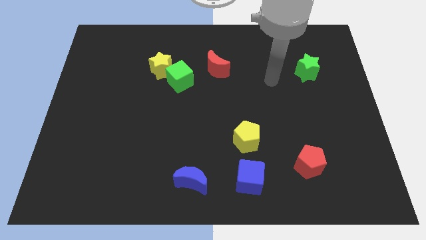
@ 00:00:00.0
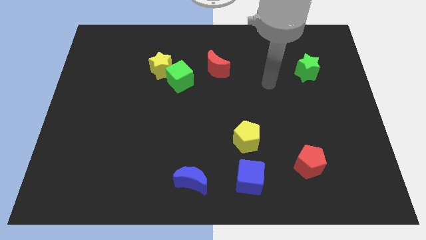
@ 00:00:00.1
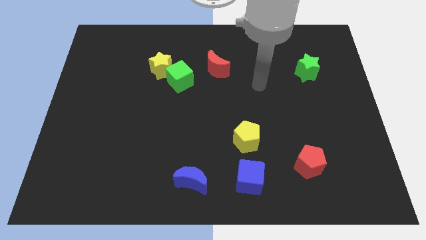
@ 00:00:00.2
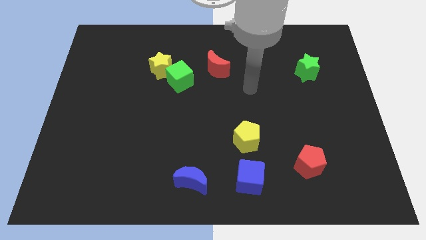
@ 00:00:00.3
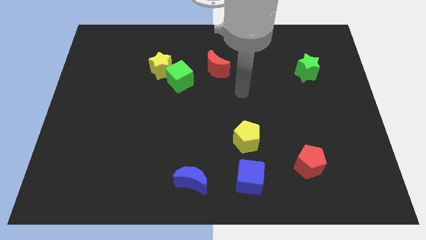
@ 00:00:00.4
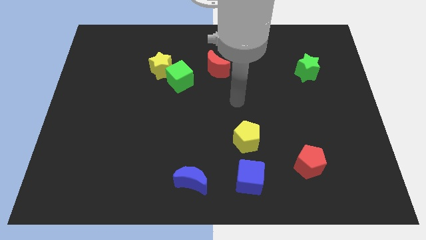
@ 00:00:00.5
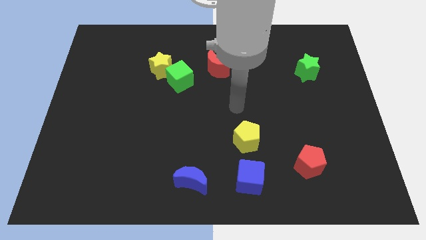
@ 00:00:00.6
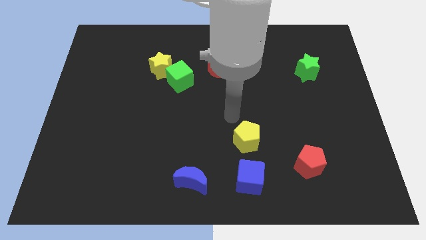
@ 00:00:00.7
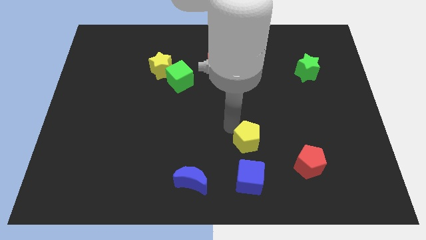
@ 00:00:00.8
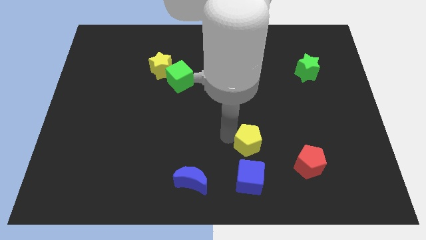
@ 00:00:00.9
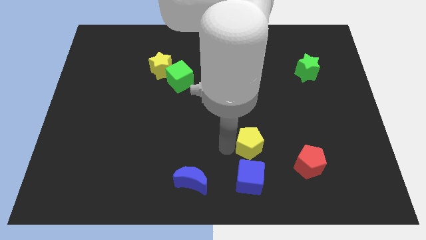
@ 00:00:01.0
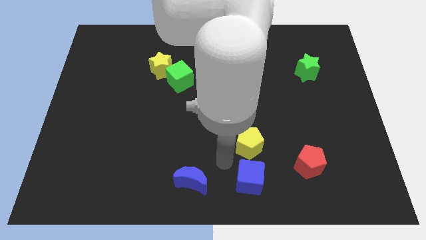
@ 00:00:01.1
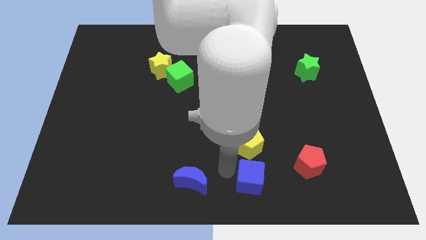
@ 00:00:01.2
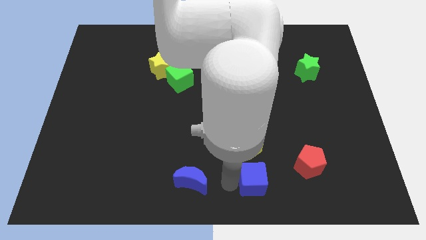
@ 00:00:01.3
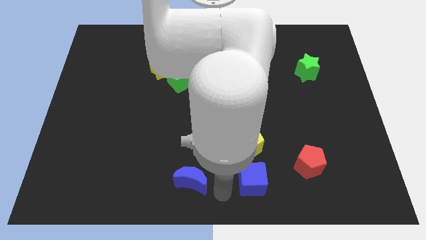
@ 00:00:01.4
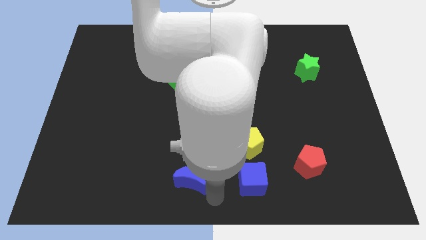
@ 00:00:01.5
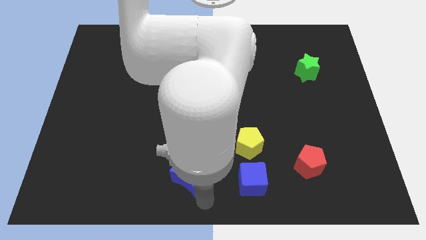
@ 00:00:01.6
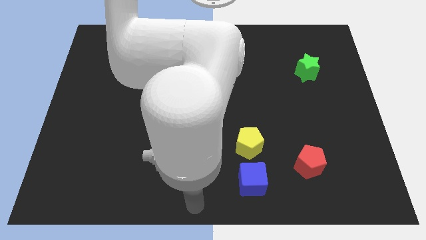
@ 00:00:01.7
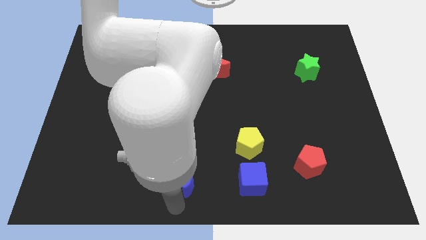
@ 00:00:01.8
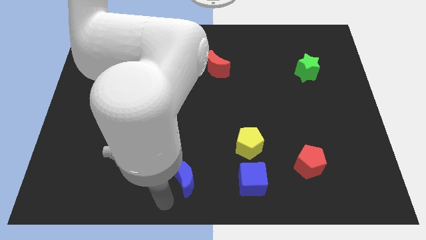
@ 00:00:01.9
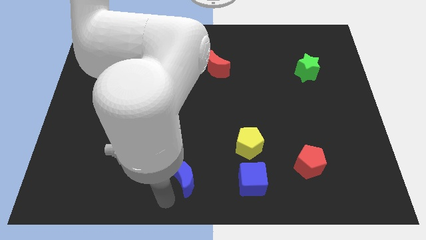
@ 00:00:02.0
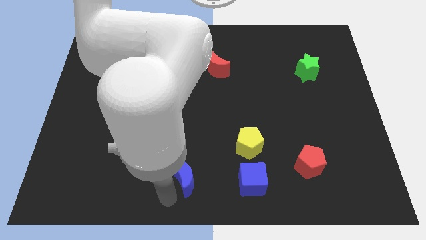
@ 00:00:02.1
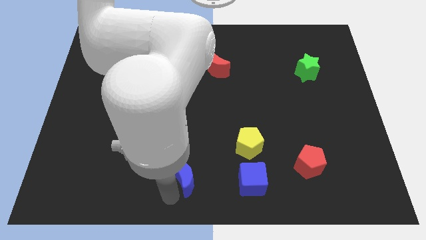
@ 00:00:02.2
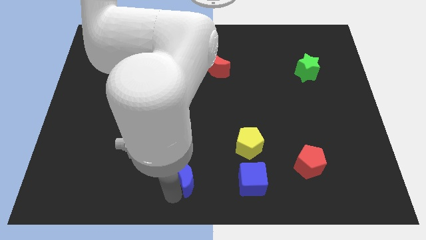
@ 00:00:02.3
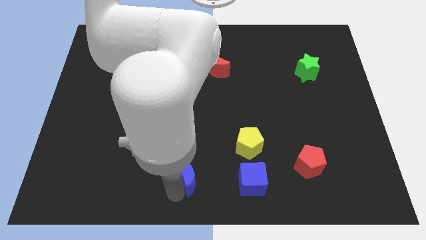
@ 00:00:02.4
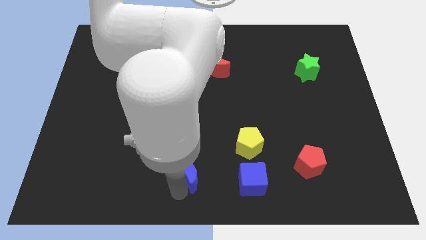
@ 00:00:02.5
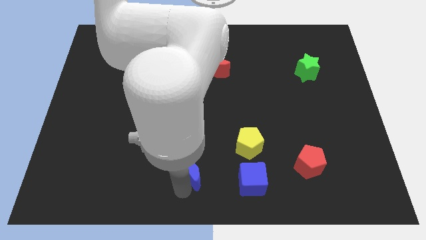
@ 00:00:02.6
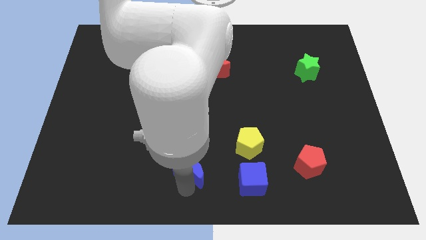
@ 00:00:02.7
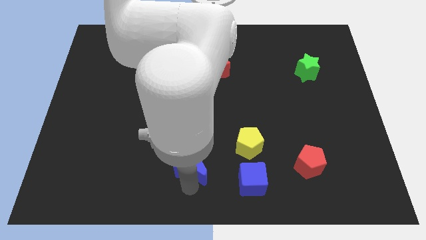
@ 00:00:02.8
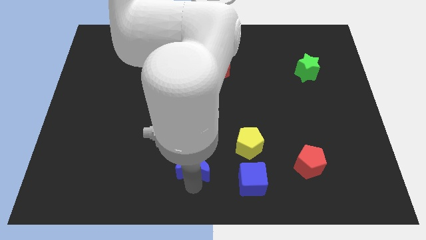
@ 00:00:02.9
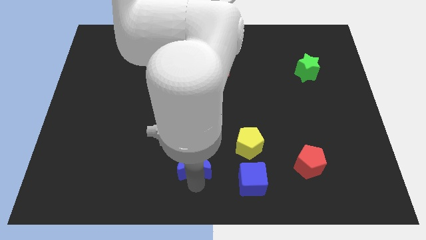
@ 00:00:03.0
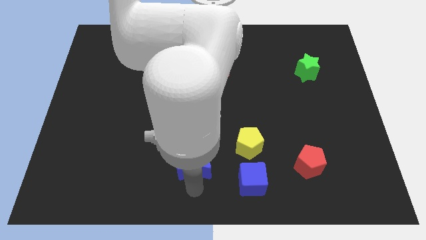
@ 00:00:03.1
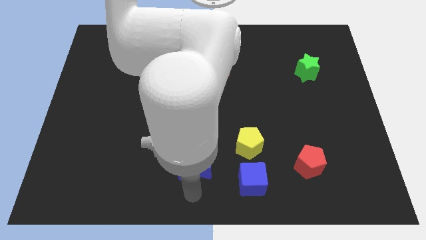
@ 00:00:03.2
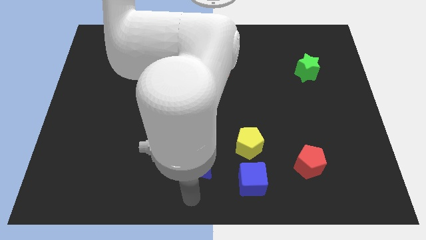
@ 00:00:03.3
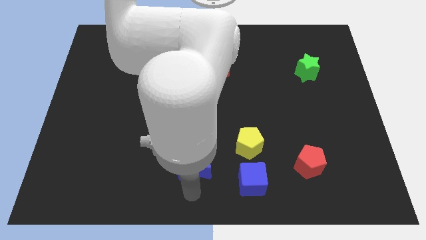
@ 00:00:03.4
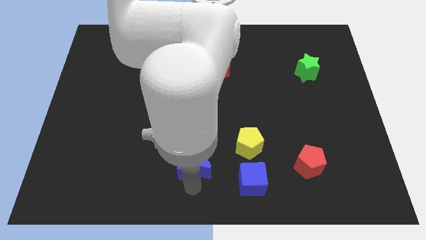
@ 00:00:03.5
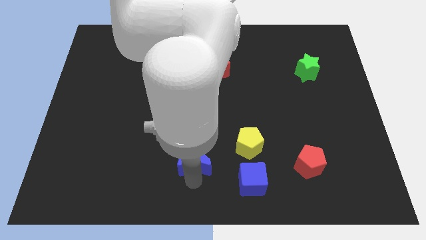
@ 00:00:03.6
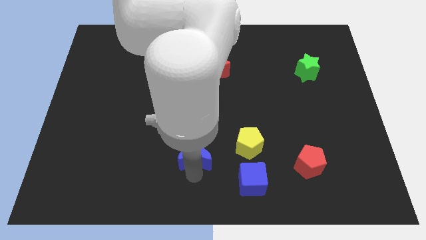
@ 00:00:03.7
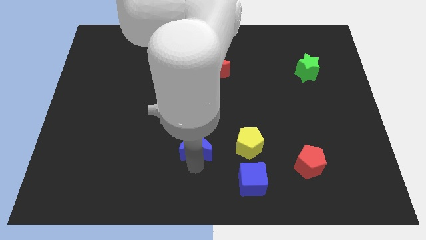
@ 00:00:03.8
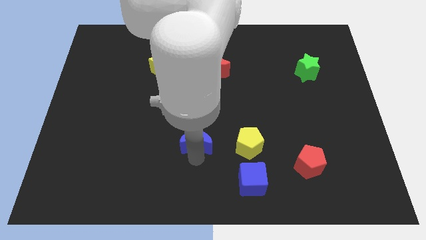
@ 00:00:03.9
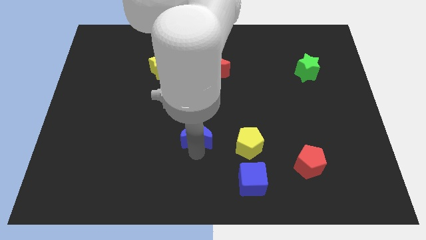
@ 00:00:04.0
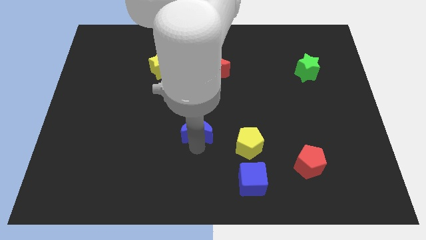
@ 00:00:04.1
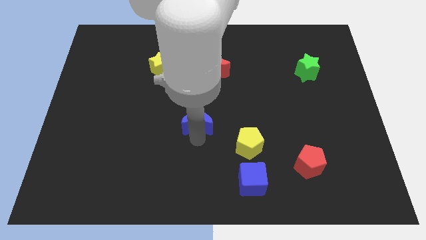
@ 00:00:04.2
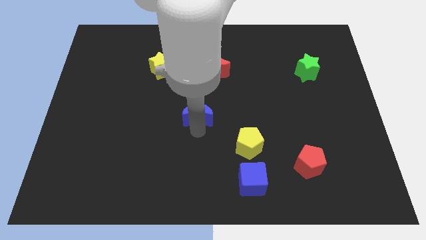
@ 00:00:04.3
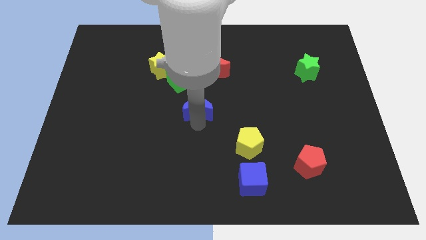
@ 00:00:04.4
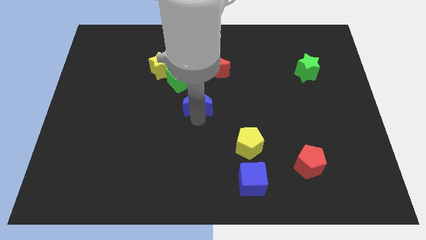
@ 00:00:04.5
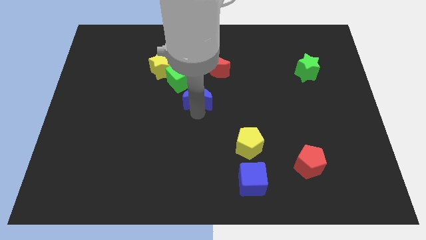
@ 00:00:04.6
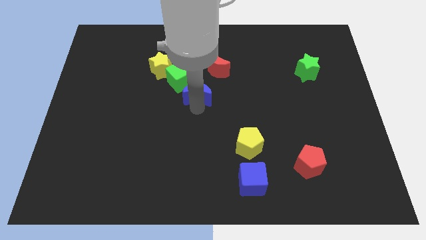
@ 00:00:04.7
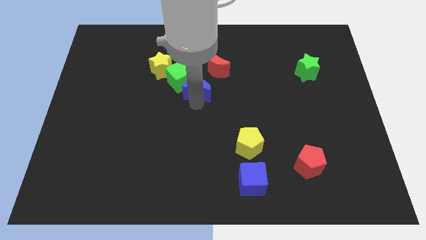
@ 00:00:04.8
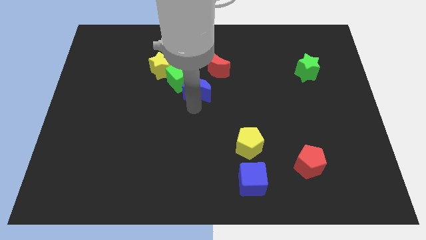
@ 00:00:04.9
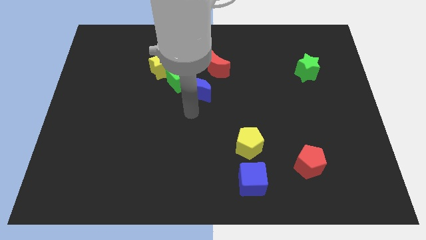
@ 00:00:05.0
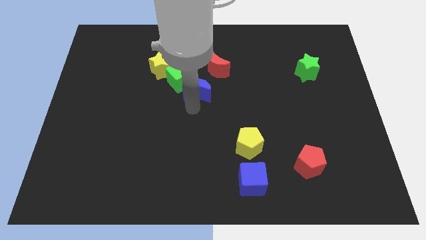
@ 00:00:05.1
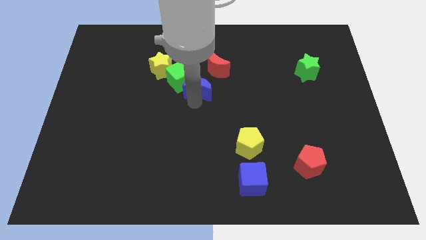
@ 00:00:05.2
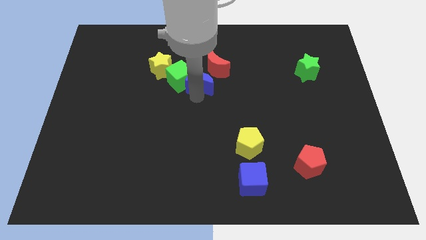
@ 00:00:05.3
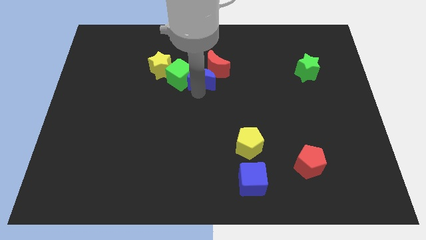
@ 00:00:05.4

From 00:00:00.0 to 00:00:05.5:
slide the blue moon towards the red moon
